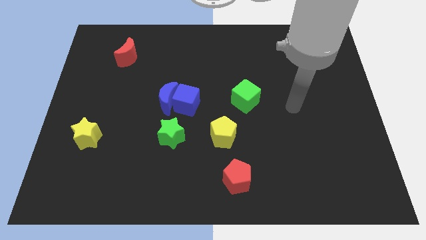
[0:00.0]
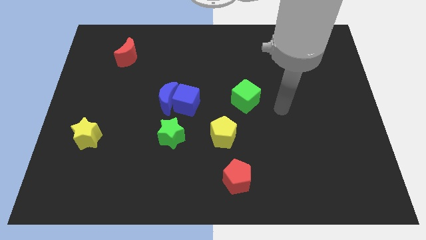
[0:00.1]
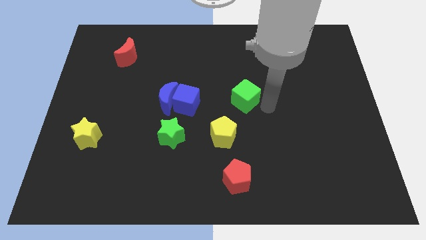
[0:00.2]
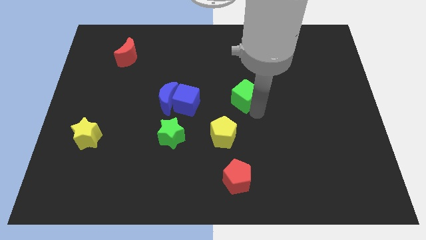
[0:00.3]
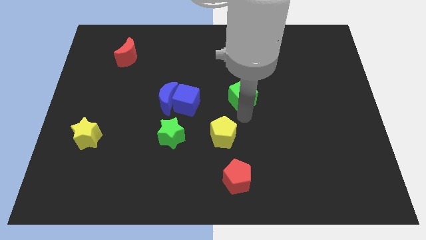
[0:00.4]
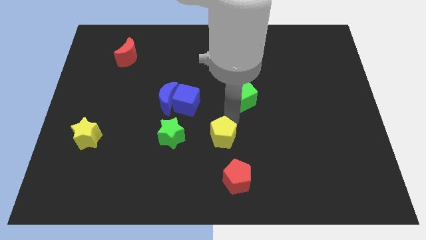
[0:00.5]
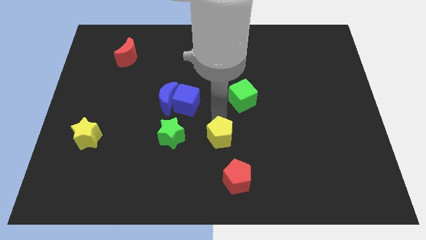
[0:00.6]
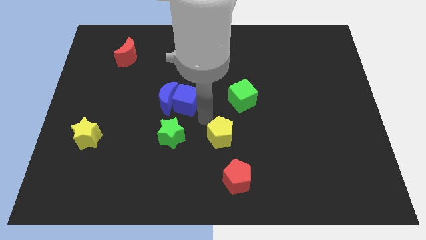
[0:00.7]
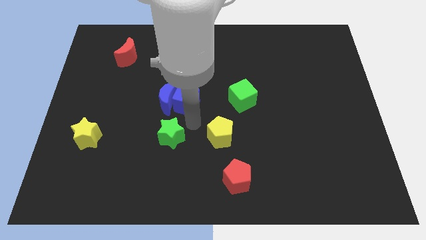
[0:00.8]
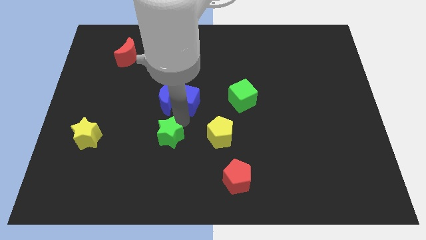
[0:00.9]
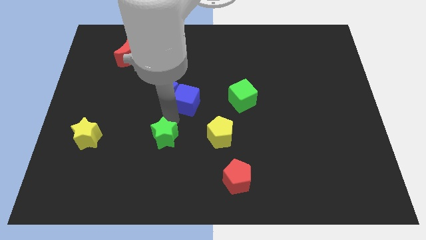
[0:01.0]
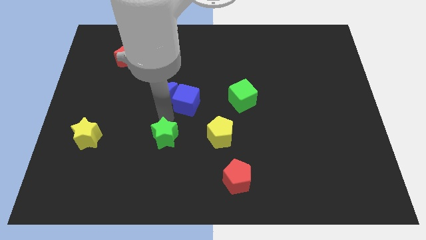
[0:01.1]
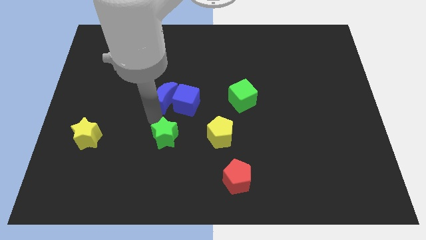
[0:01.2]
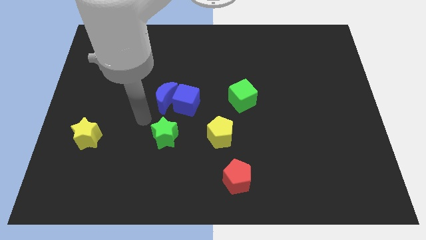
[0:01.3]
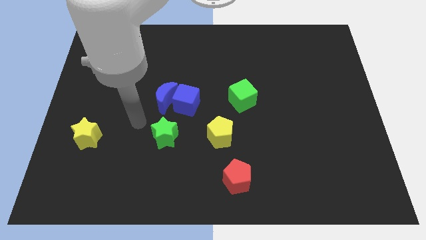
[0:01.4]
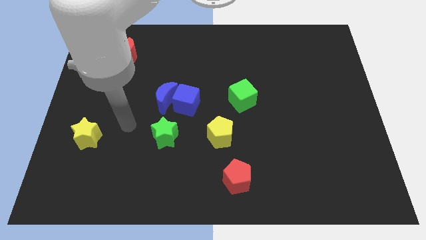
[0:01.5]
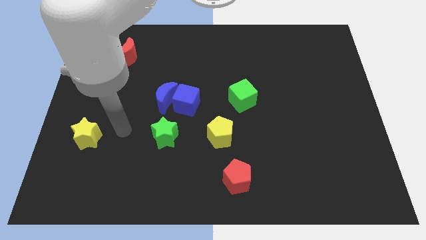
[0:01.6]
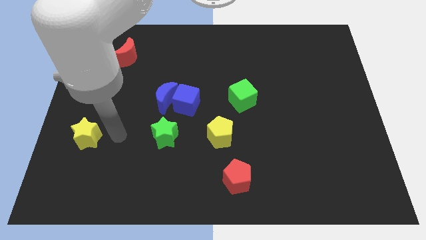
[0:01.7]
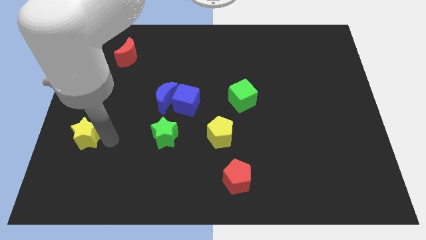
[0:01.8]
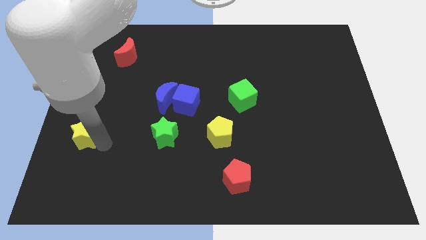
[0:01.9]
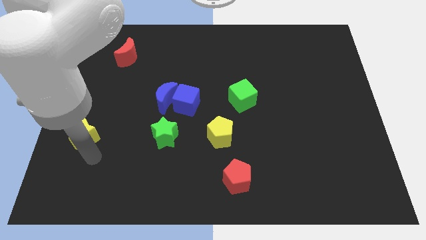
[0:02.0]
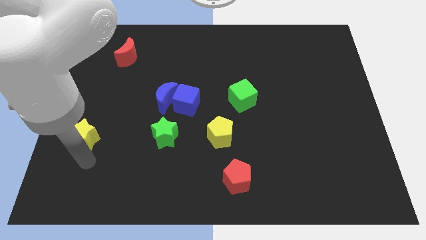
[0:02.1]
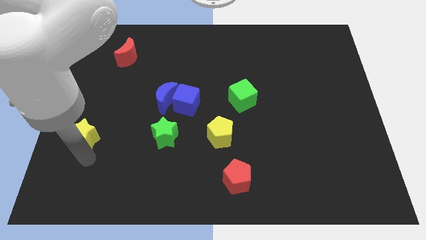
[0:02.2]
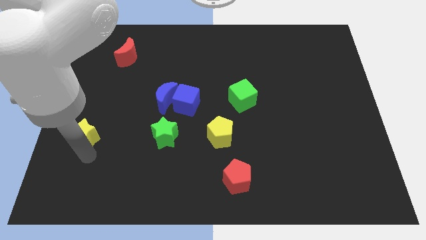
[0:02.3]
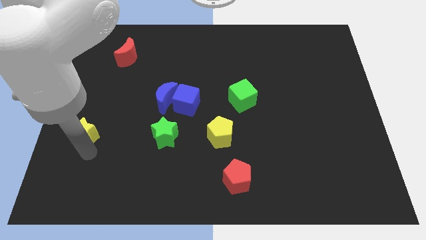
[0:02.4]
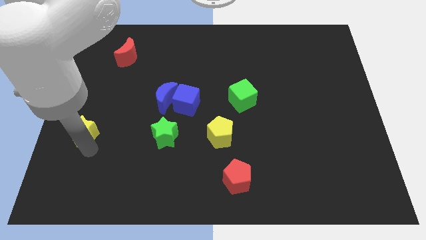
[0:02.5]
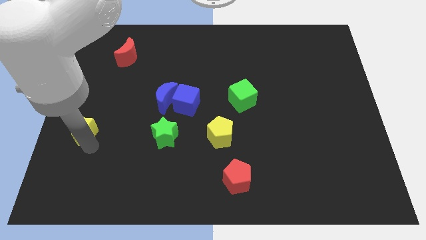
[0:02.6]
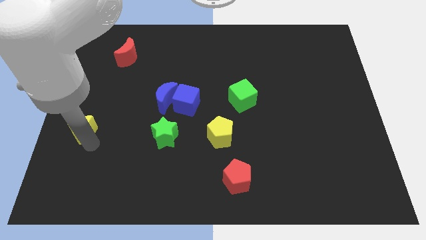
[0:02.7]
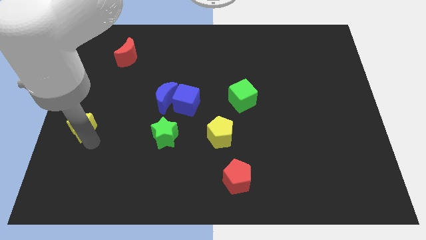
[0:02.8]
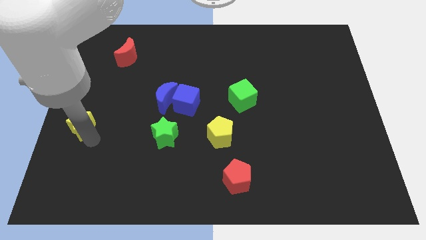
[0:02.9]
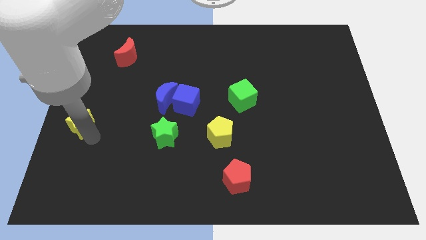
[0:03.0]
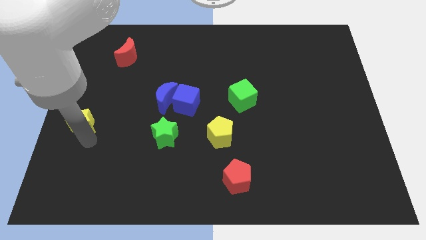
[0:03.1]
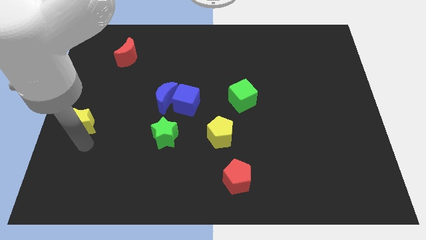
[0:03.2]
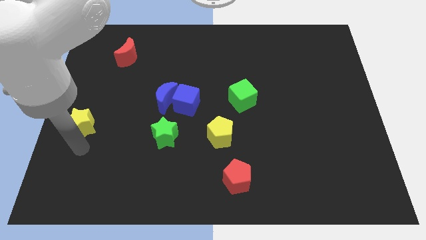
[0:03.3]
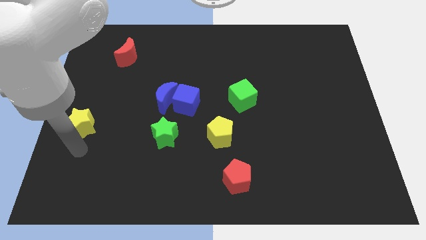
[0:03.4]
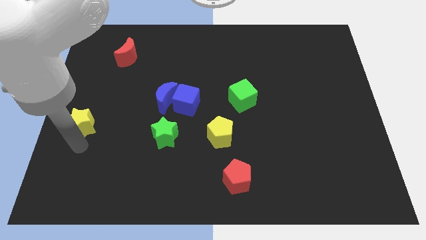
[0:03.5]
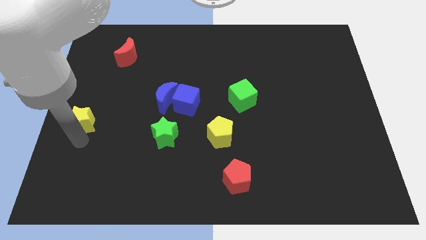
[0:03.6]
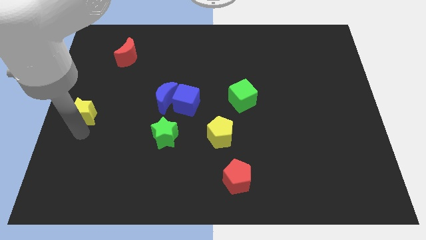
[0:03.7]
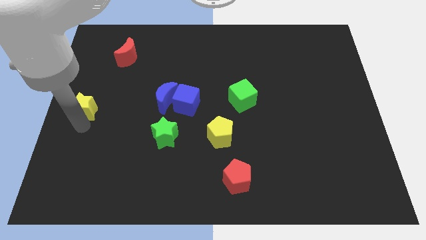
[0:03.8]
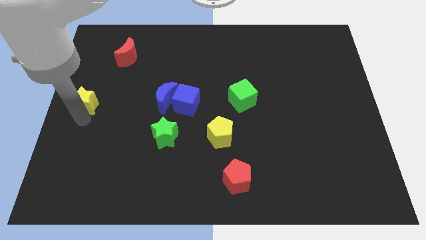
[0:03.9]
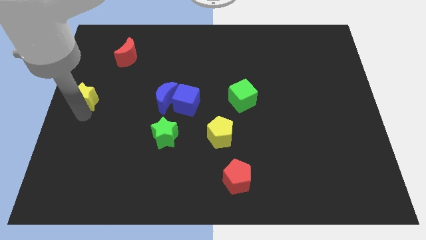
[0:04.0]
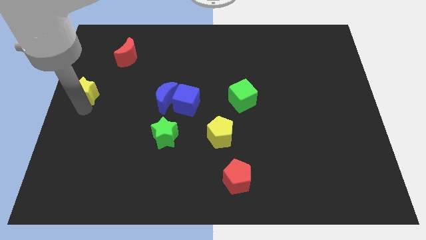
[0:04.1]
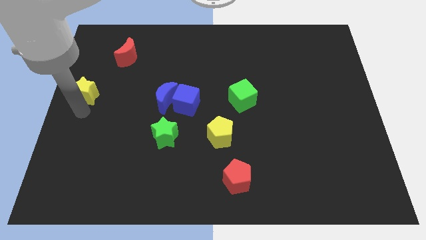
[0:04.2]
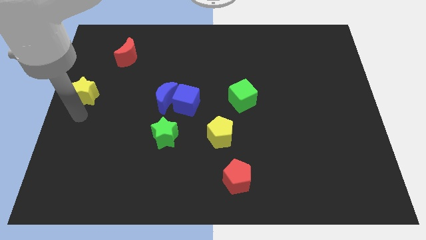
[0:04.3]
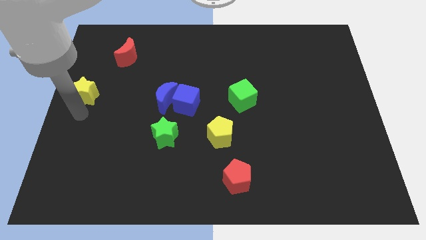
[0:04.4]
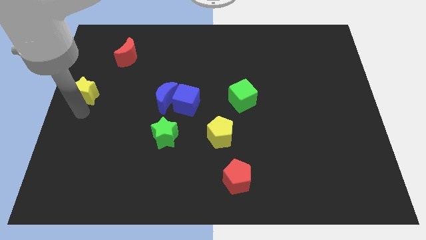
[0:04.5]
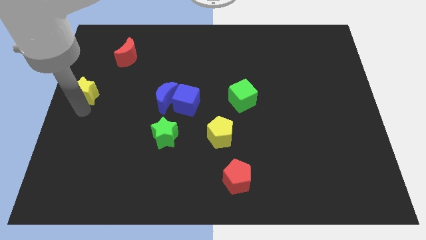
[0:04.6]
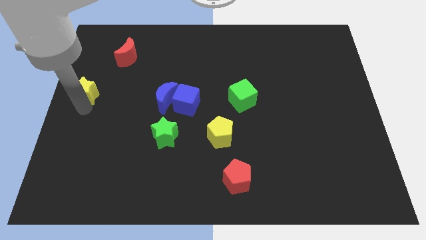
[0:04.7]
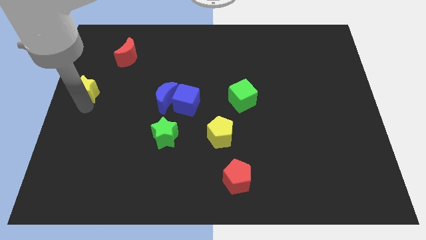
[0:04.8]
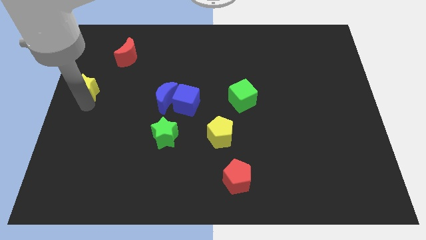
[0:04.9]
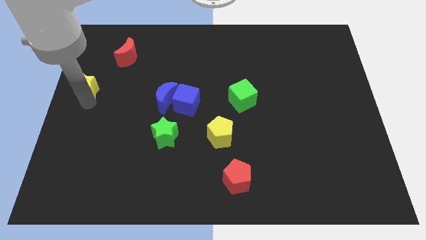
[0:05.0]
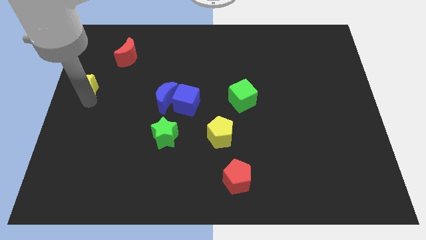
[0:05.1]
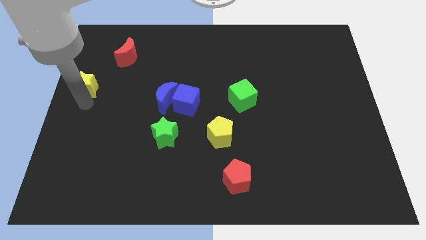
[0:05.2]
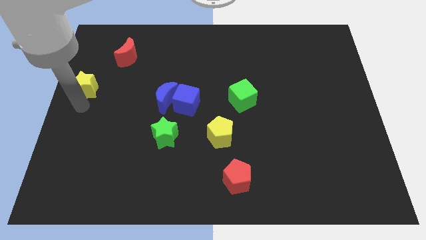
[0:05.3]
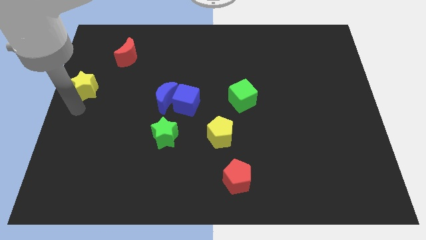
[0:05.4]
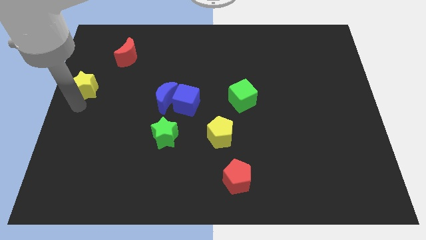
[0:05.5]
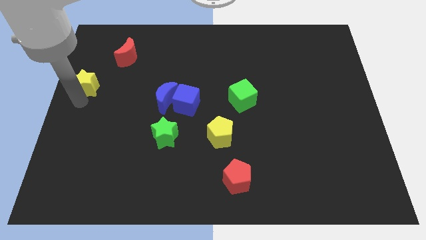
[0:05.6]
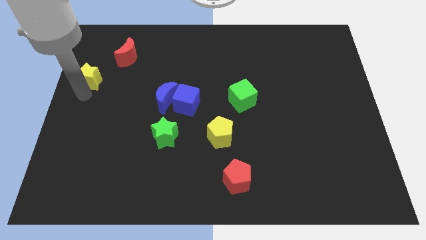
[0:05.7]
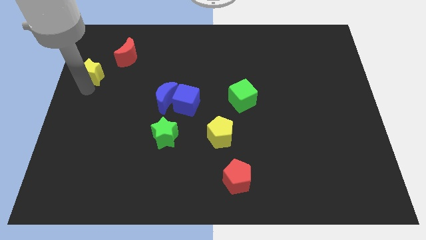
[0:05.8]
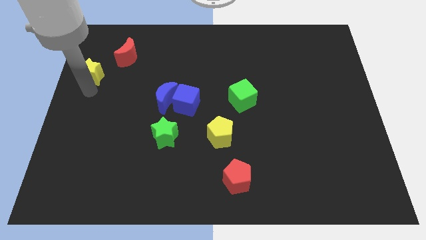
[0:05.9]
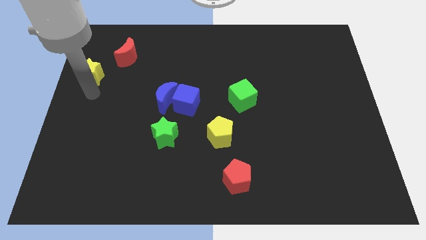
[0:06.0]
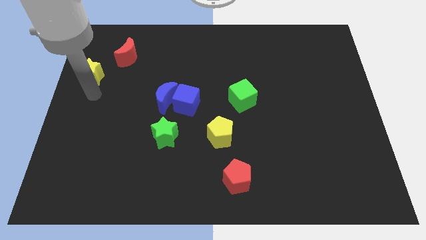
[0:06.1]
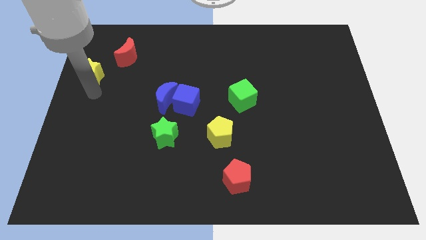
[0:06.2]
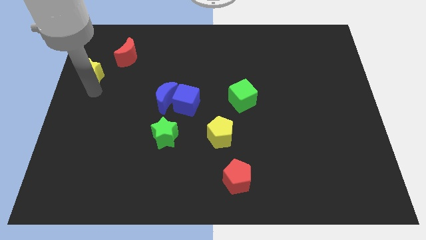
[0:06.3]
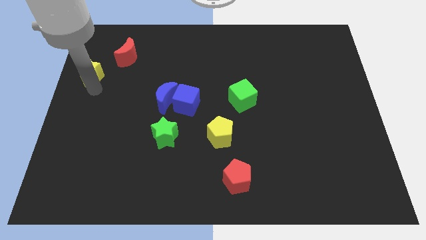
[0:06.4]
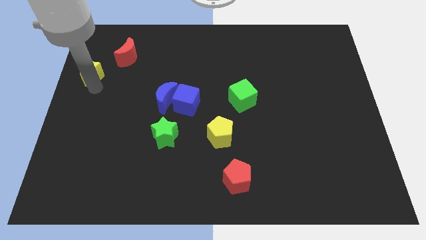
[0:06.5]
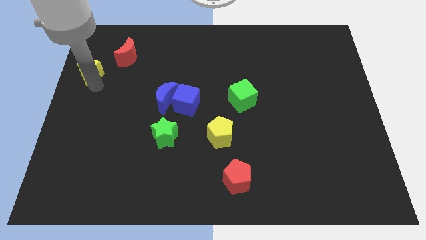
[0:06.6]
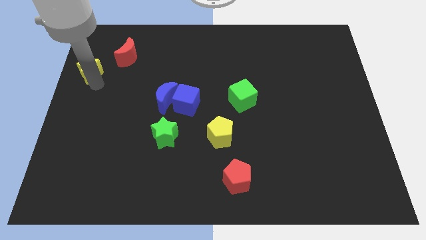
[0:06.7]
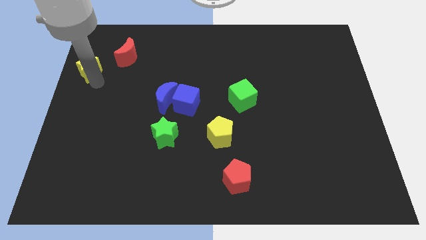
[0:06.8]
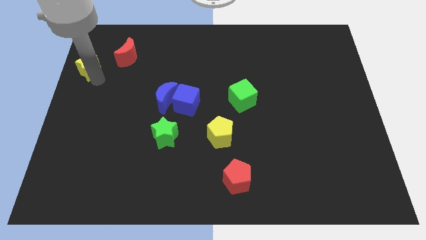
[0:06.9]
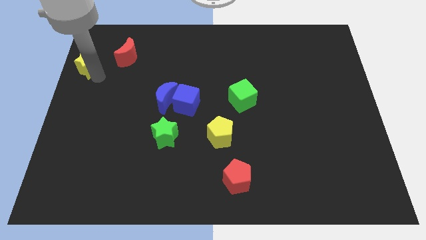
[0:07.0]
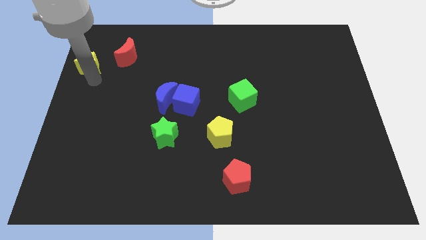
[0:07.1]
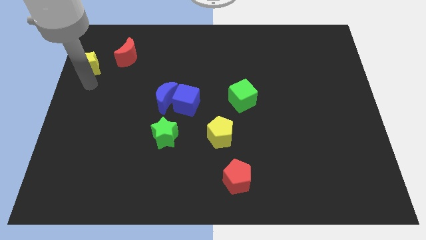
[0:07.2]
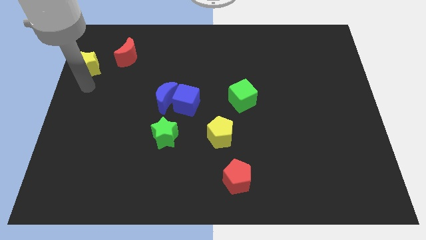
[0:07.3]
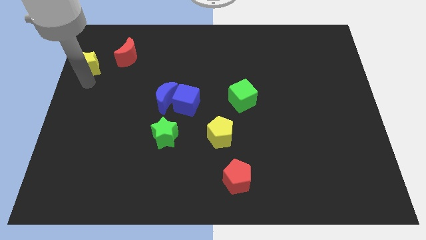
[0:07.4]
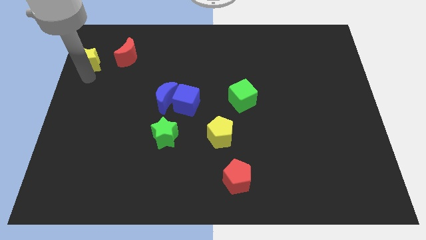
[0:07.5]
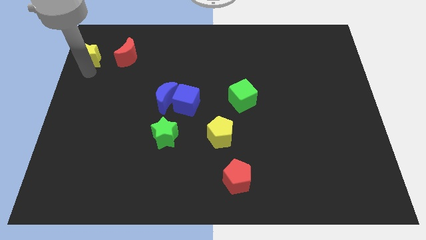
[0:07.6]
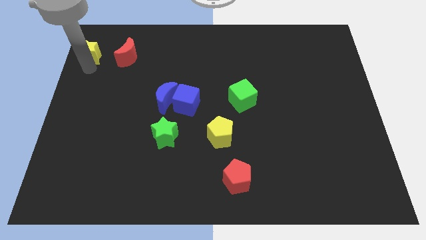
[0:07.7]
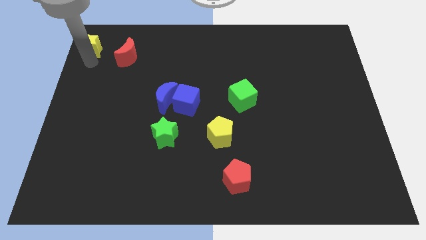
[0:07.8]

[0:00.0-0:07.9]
push the yellow star to the upper left corner
